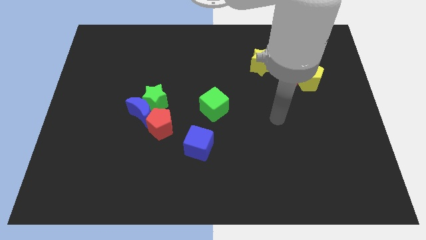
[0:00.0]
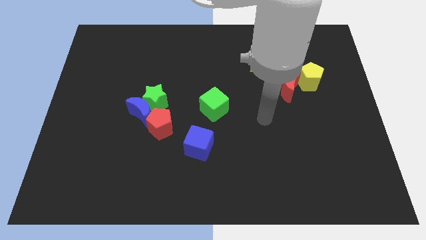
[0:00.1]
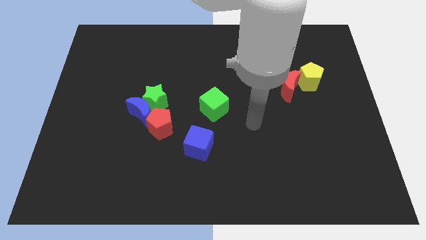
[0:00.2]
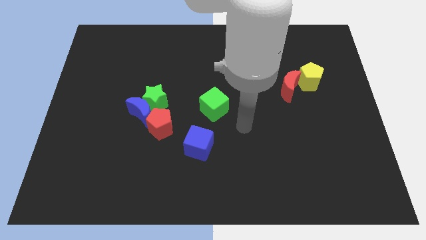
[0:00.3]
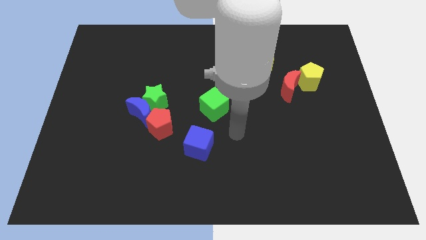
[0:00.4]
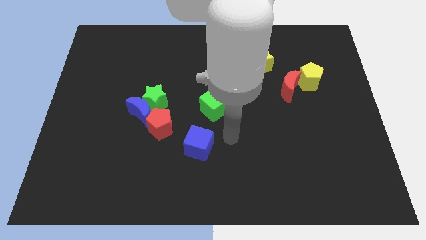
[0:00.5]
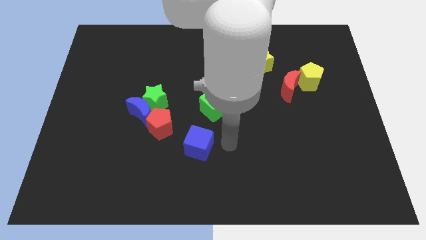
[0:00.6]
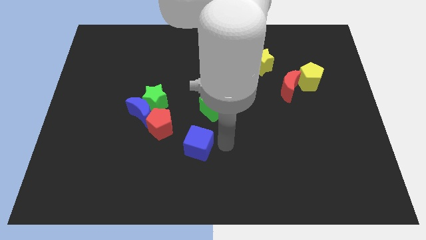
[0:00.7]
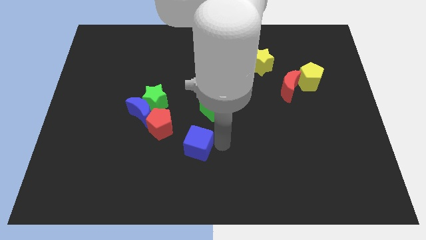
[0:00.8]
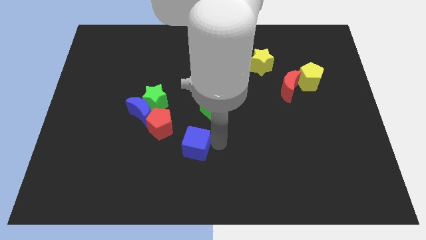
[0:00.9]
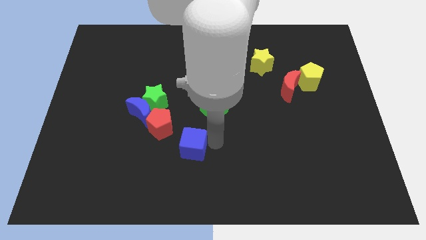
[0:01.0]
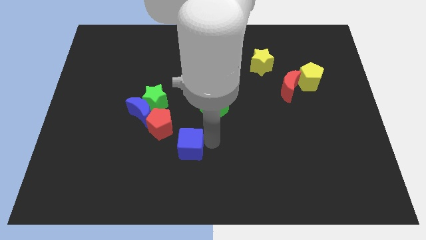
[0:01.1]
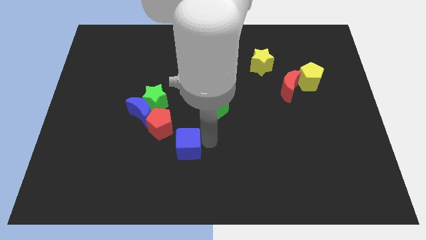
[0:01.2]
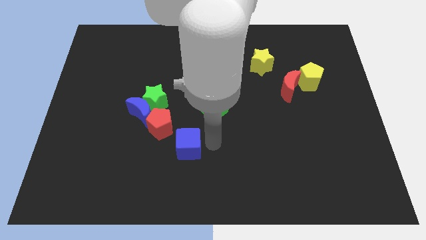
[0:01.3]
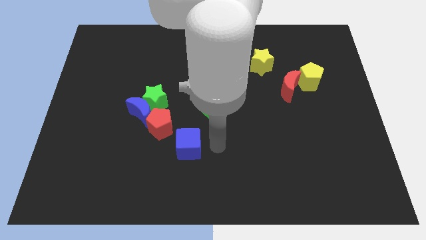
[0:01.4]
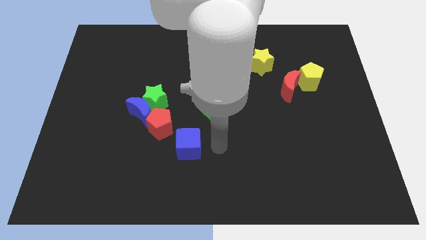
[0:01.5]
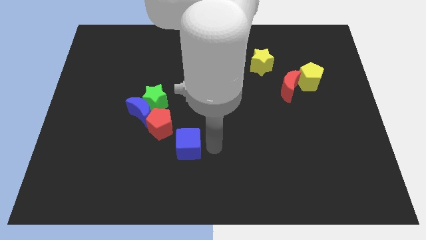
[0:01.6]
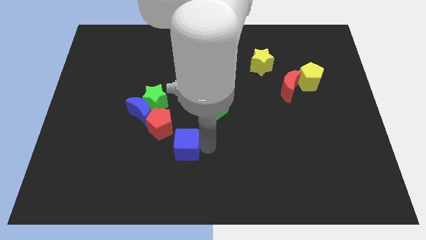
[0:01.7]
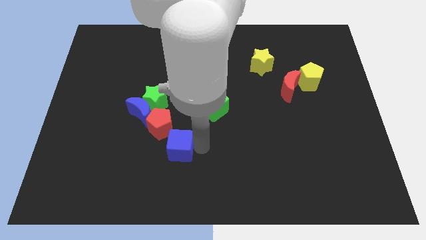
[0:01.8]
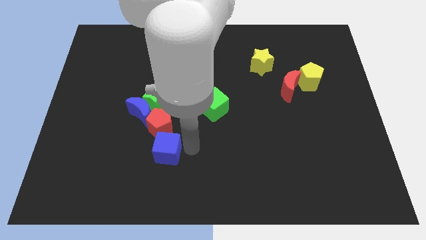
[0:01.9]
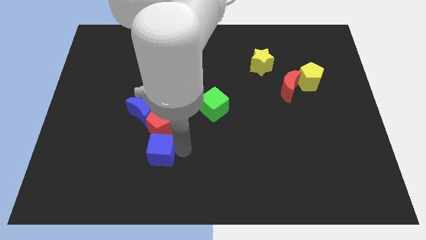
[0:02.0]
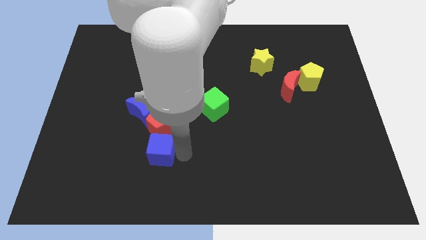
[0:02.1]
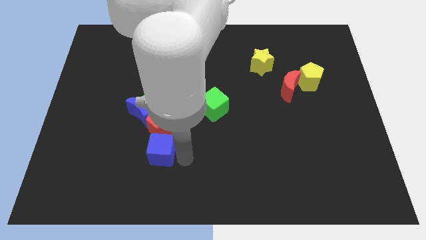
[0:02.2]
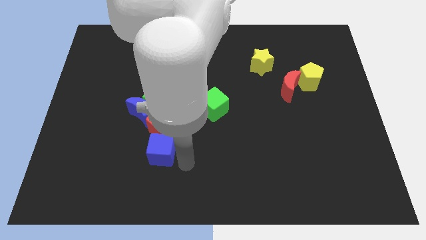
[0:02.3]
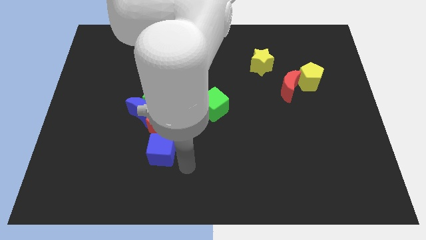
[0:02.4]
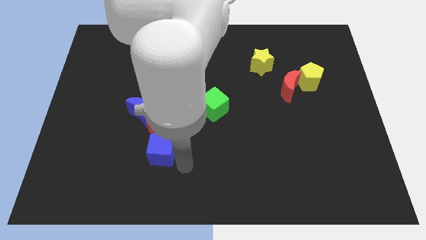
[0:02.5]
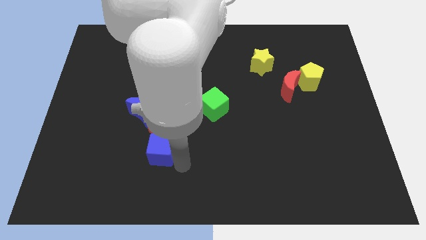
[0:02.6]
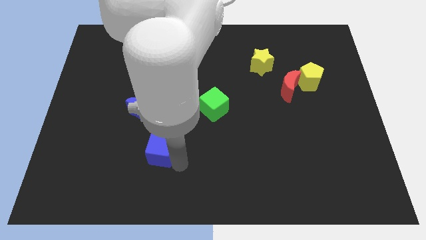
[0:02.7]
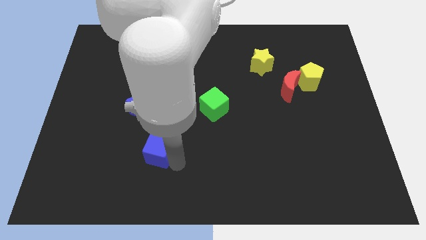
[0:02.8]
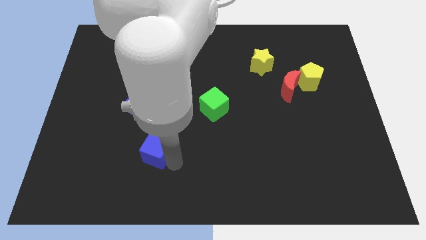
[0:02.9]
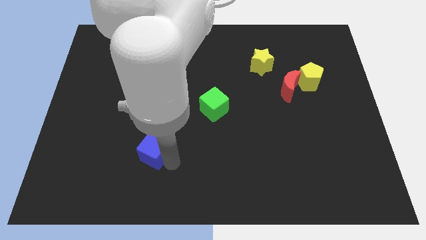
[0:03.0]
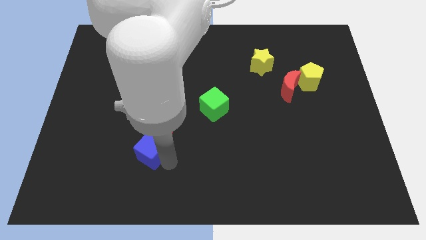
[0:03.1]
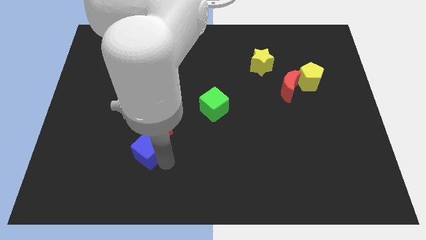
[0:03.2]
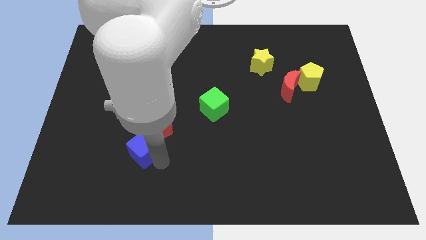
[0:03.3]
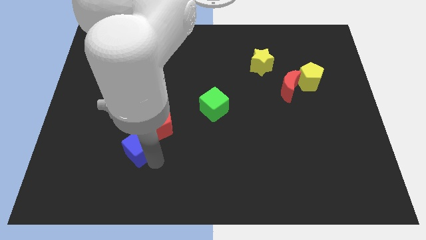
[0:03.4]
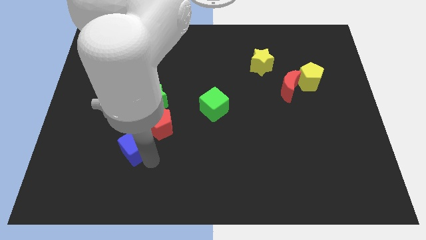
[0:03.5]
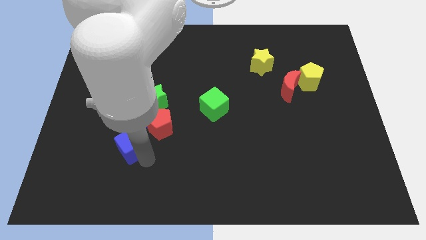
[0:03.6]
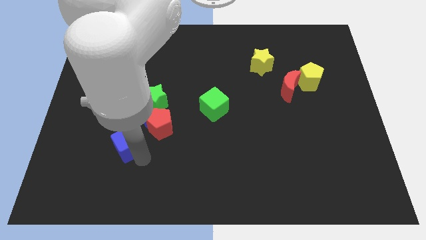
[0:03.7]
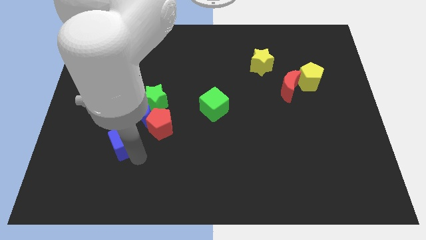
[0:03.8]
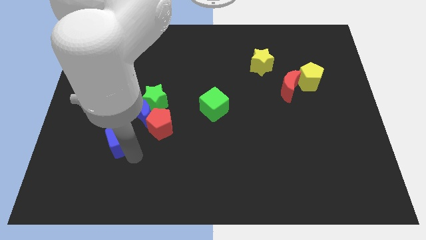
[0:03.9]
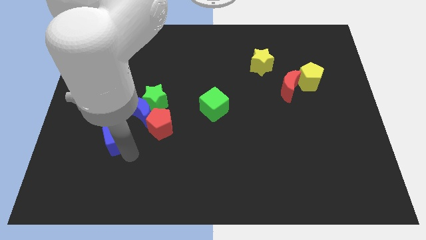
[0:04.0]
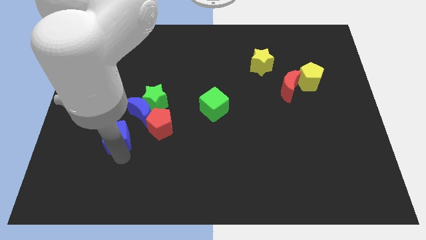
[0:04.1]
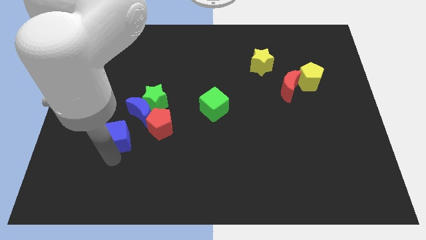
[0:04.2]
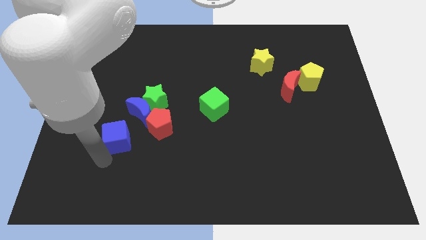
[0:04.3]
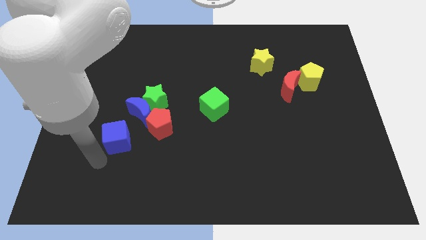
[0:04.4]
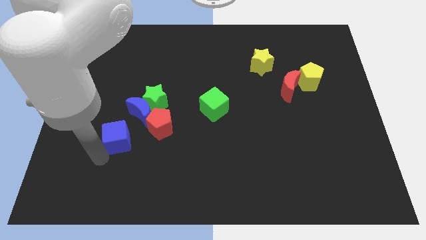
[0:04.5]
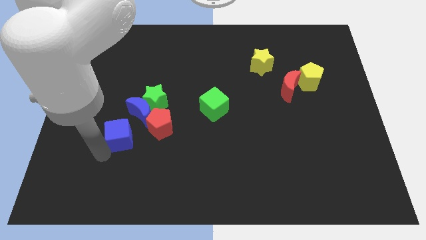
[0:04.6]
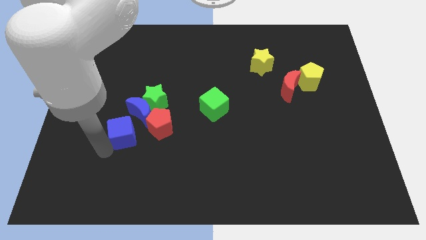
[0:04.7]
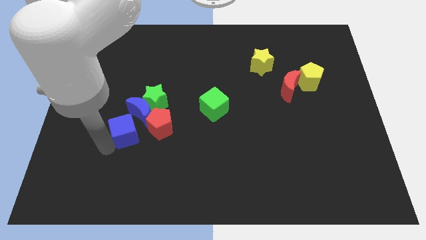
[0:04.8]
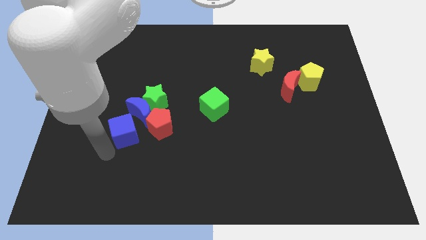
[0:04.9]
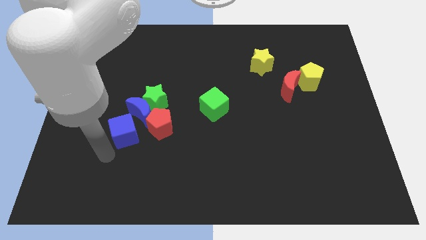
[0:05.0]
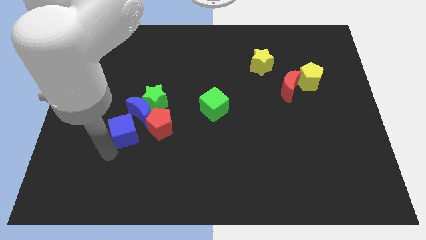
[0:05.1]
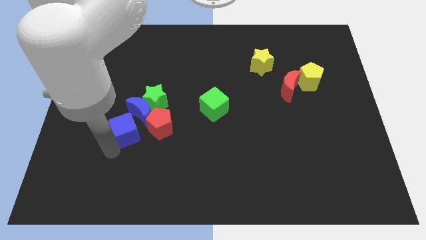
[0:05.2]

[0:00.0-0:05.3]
move the blue cube to the blue moon

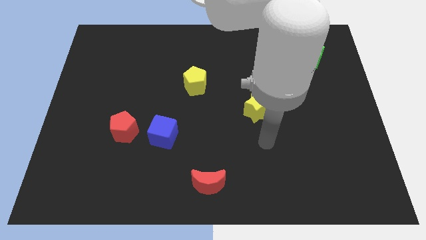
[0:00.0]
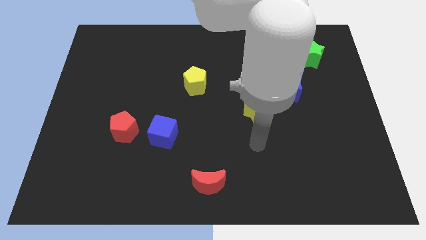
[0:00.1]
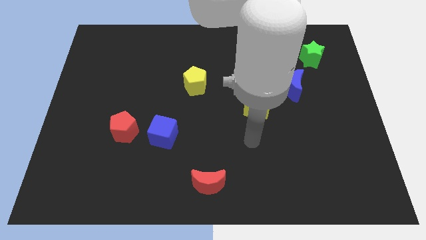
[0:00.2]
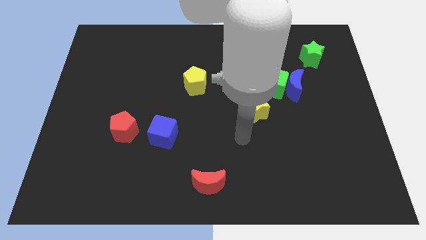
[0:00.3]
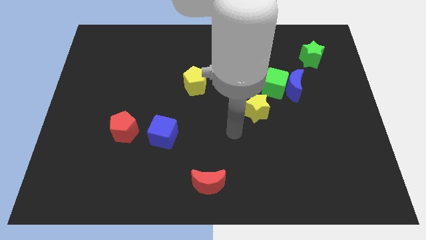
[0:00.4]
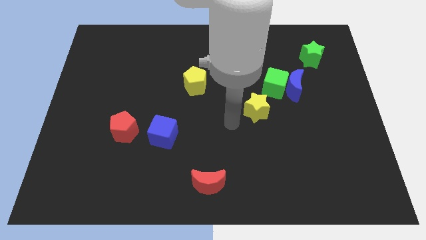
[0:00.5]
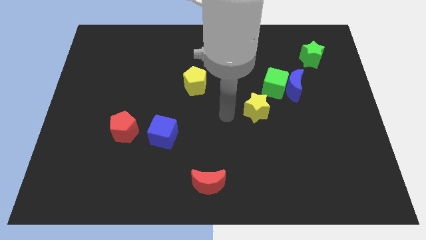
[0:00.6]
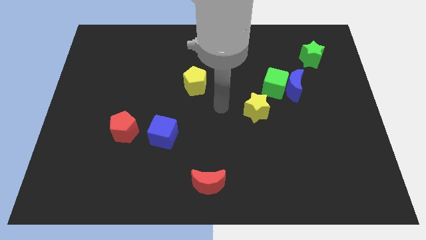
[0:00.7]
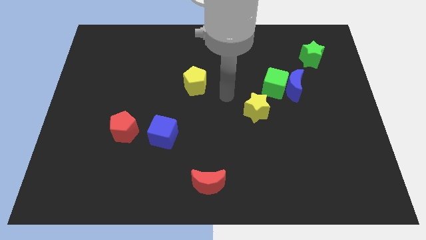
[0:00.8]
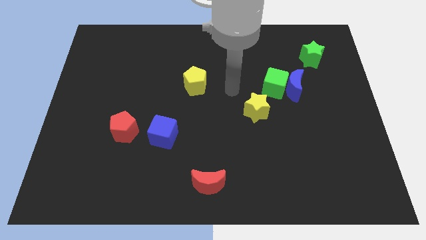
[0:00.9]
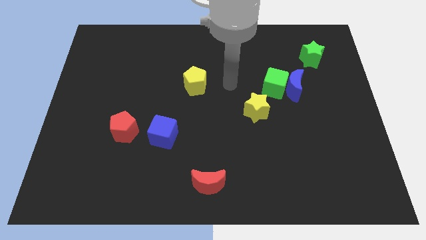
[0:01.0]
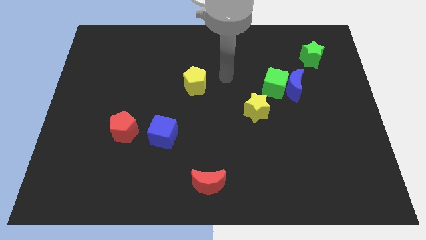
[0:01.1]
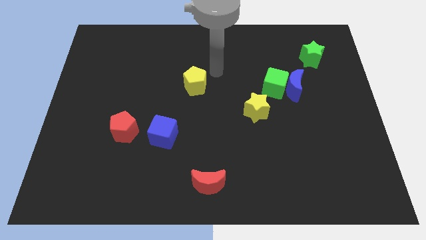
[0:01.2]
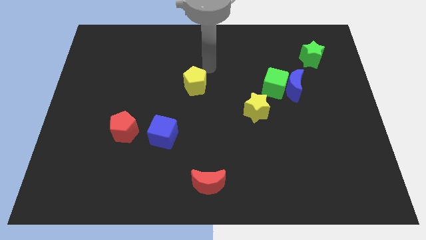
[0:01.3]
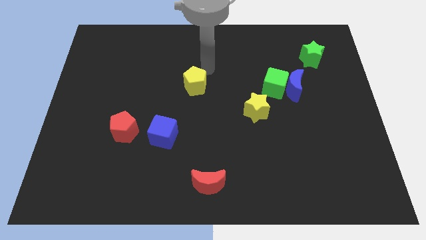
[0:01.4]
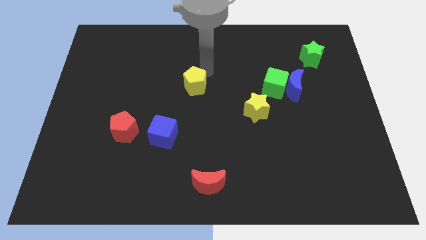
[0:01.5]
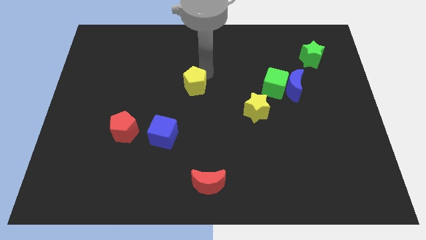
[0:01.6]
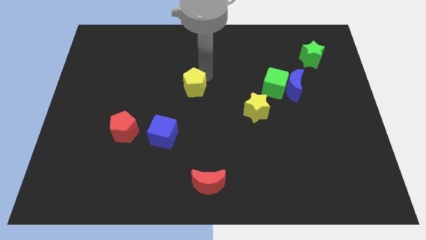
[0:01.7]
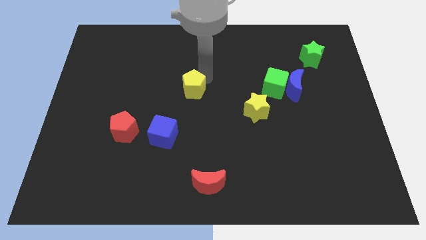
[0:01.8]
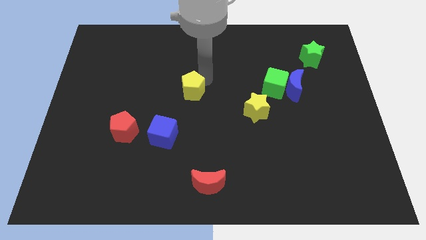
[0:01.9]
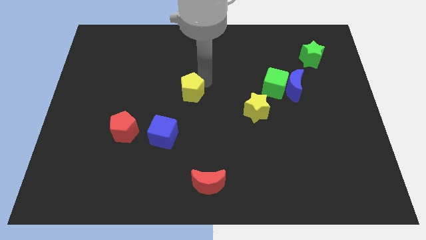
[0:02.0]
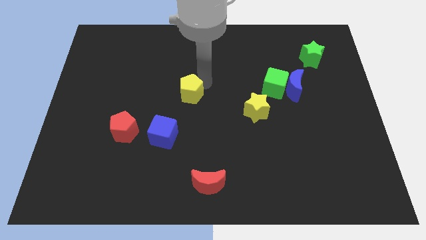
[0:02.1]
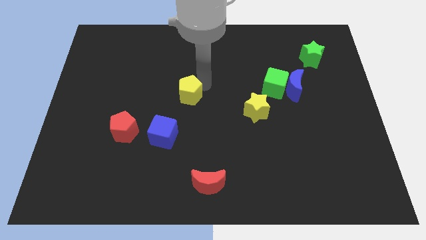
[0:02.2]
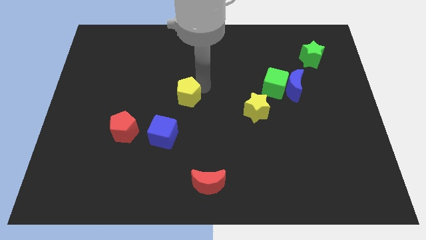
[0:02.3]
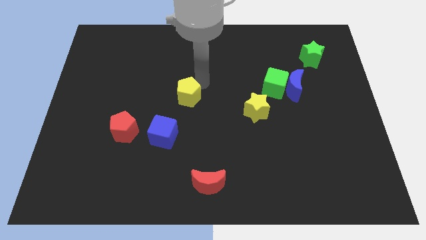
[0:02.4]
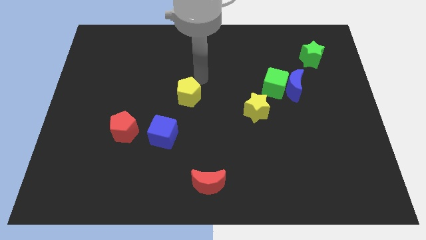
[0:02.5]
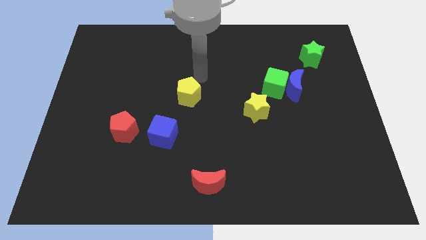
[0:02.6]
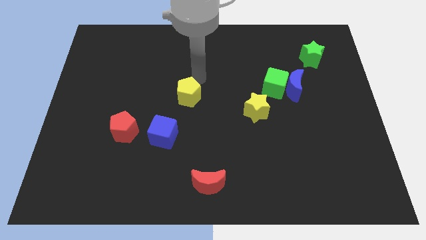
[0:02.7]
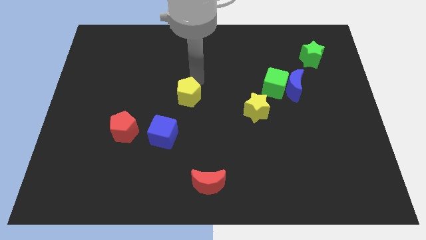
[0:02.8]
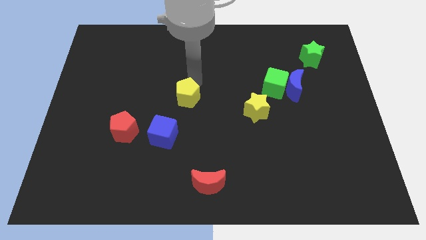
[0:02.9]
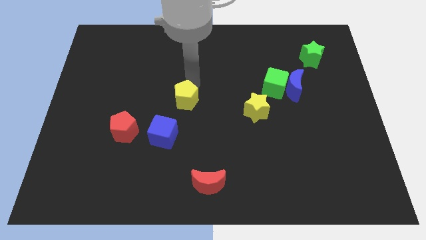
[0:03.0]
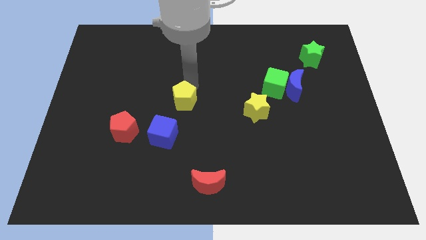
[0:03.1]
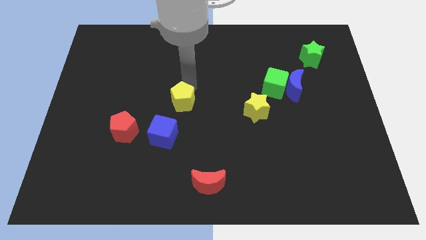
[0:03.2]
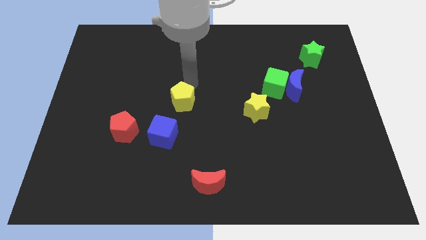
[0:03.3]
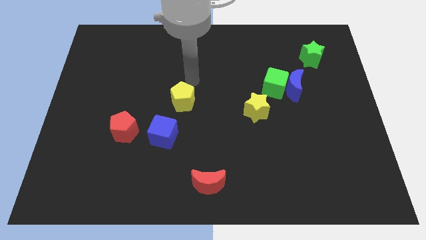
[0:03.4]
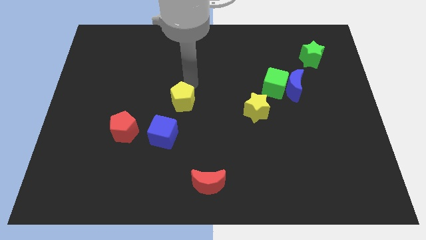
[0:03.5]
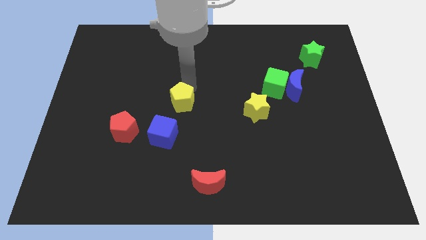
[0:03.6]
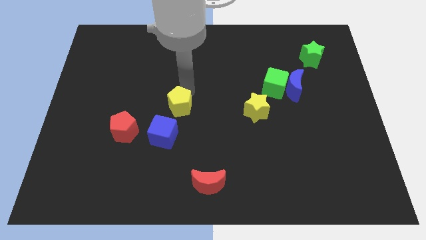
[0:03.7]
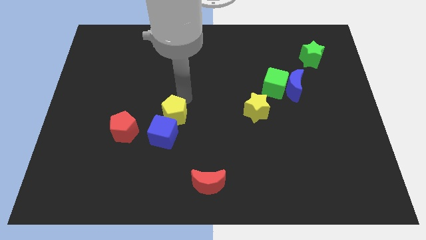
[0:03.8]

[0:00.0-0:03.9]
move the yellow pentagon to the blue cube
